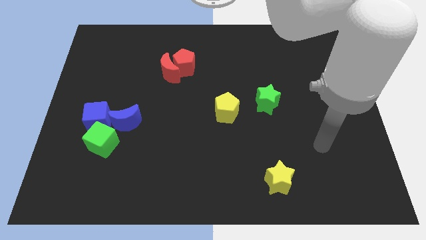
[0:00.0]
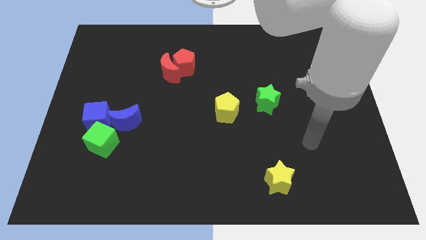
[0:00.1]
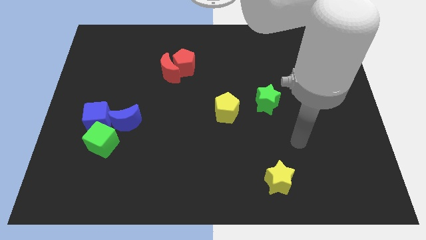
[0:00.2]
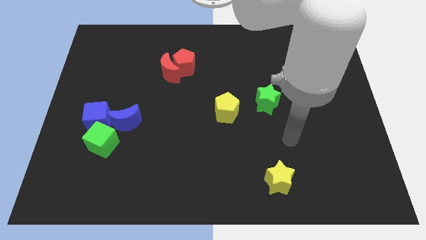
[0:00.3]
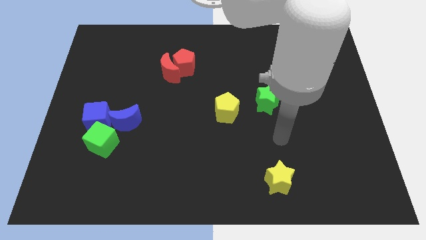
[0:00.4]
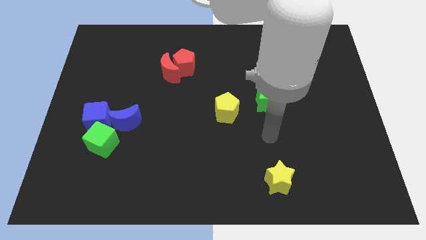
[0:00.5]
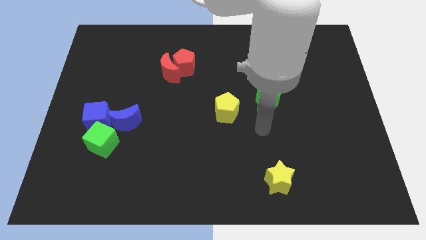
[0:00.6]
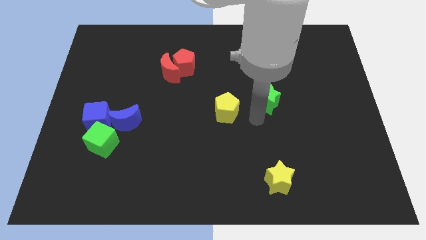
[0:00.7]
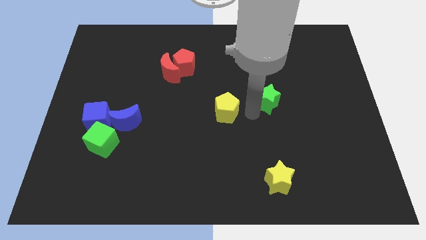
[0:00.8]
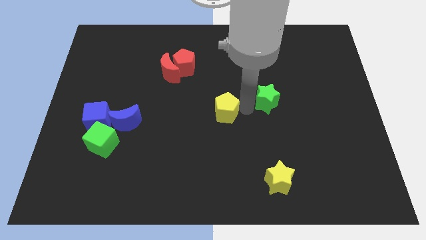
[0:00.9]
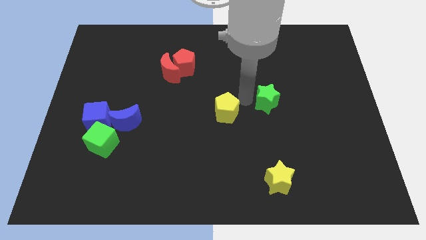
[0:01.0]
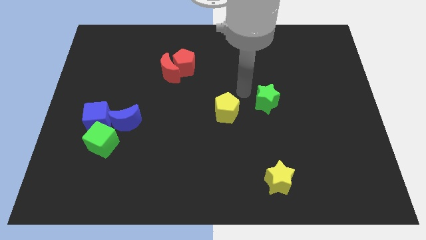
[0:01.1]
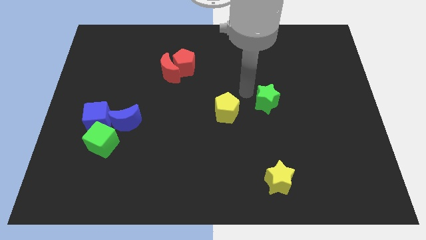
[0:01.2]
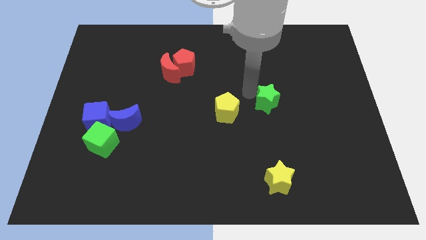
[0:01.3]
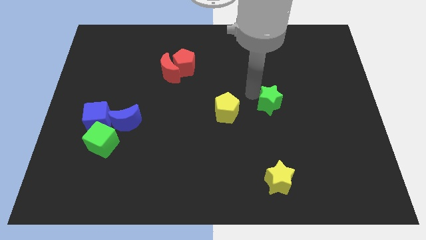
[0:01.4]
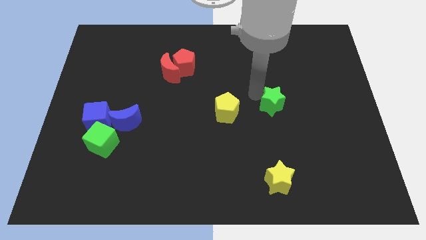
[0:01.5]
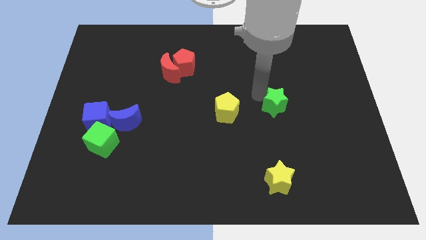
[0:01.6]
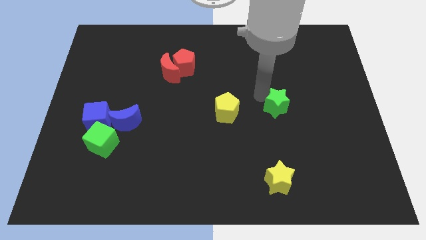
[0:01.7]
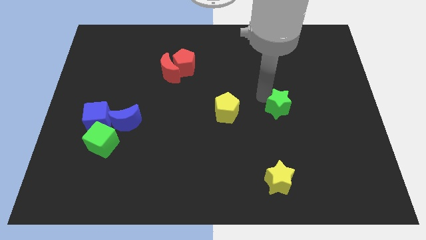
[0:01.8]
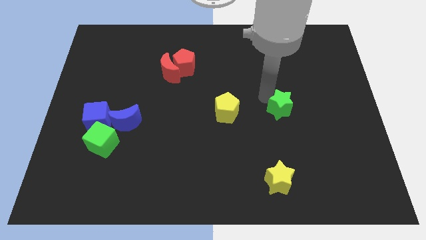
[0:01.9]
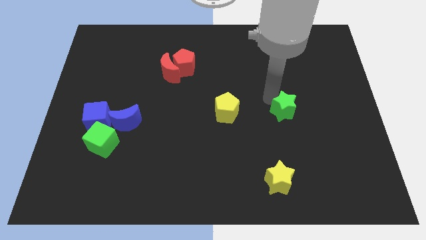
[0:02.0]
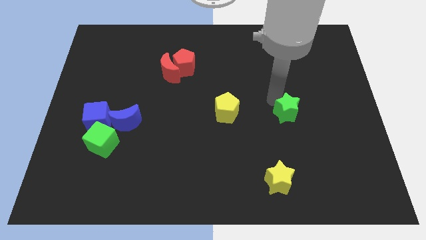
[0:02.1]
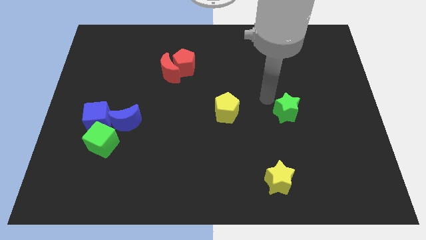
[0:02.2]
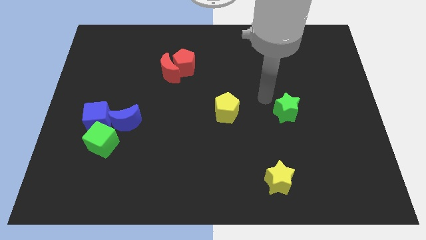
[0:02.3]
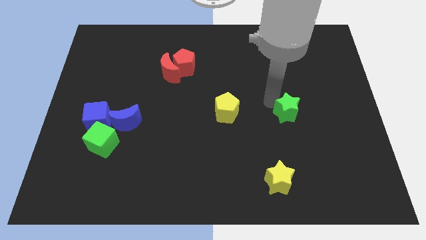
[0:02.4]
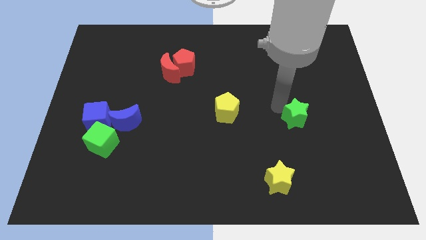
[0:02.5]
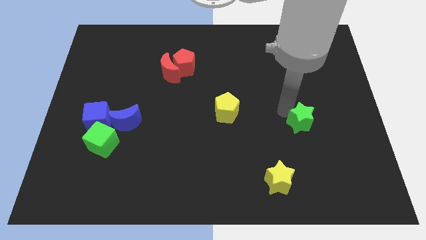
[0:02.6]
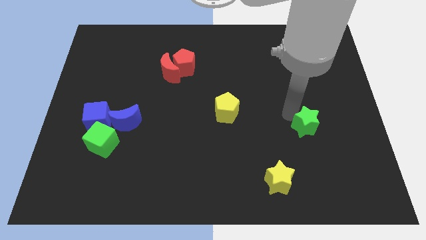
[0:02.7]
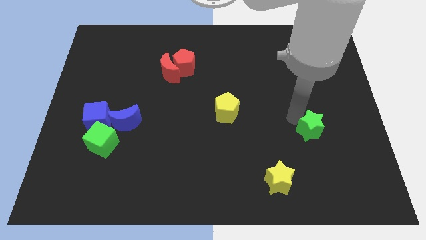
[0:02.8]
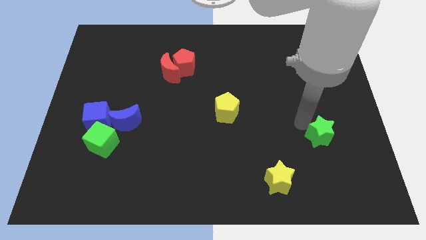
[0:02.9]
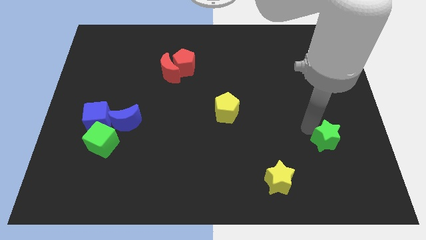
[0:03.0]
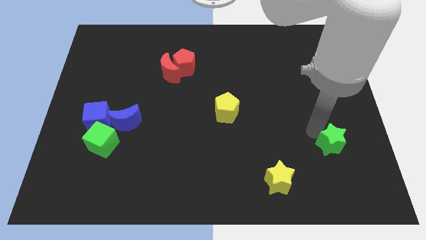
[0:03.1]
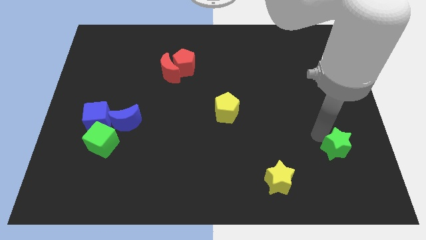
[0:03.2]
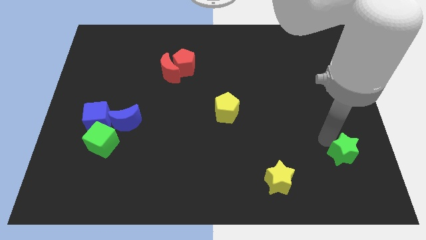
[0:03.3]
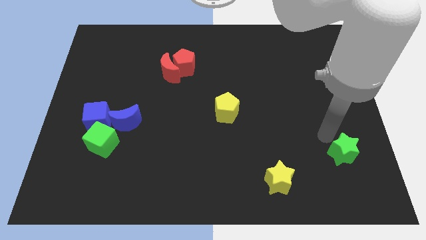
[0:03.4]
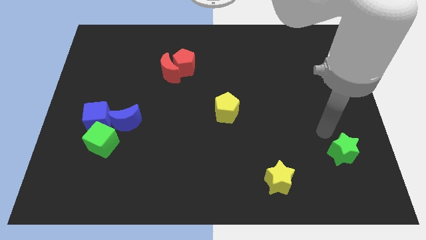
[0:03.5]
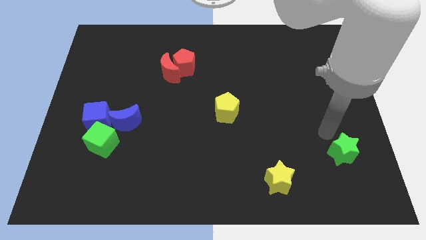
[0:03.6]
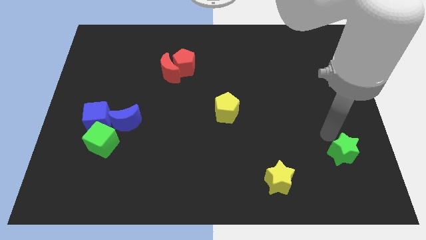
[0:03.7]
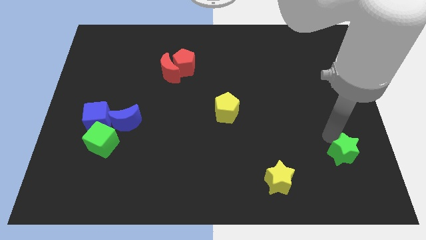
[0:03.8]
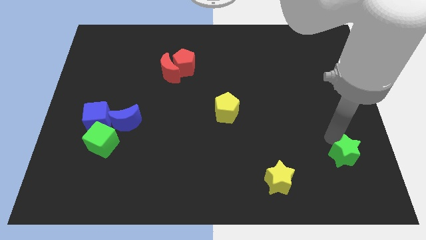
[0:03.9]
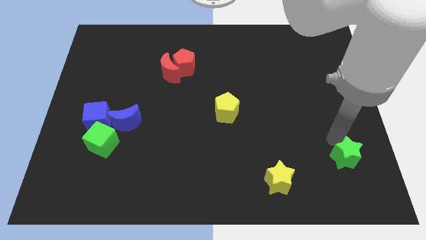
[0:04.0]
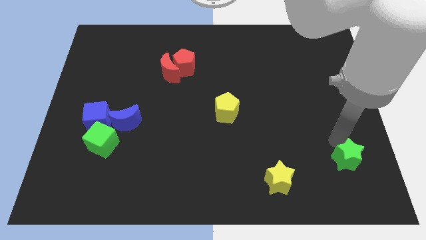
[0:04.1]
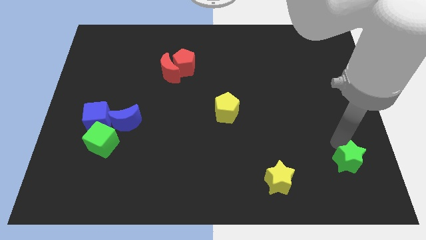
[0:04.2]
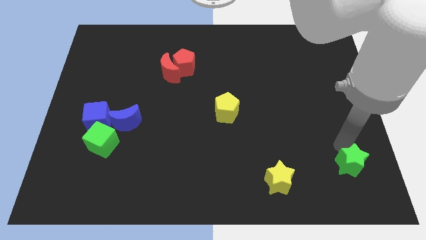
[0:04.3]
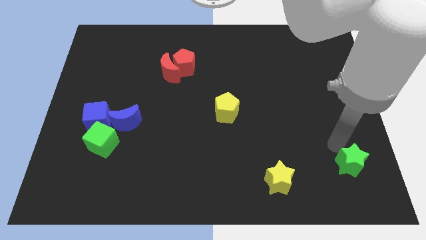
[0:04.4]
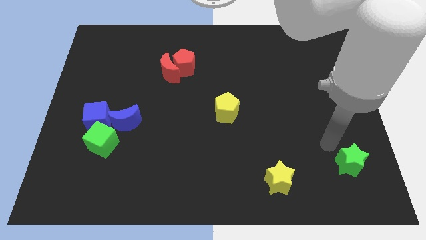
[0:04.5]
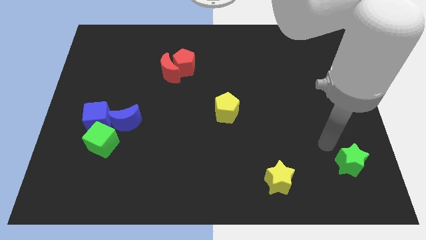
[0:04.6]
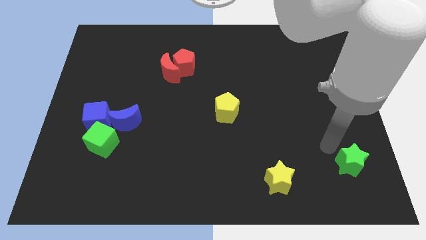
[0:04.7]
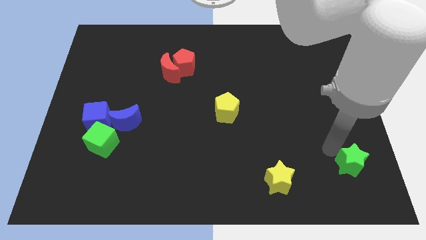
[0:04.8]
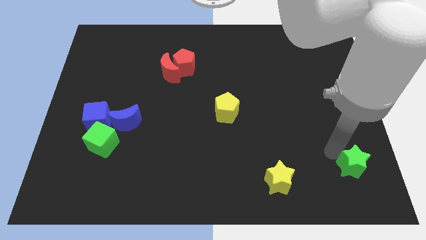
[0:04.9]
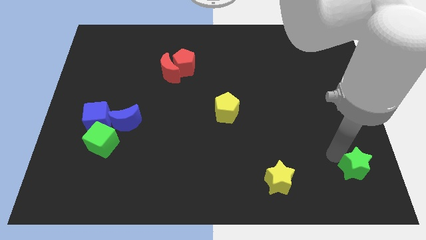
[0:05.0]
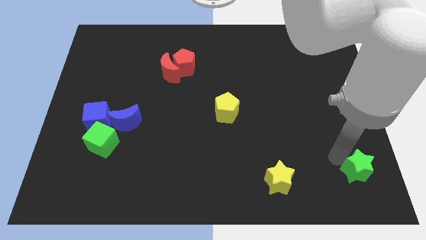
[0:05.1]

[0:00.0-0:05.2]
push the green star to the lower right corner

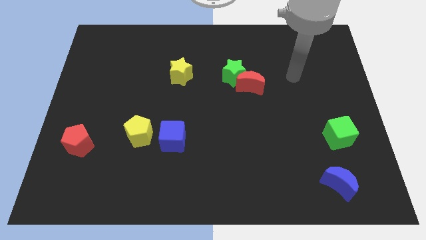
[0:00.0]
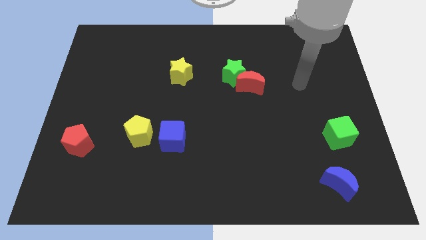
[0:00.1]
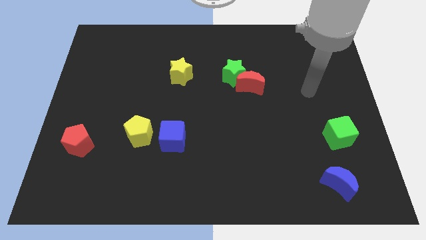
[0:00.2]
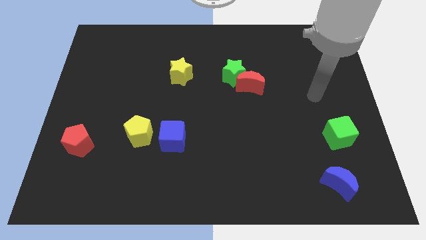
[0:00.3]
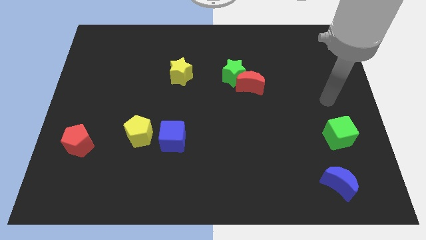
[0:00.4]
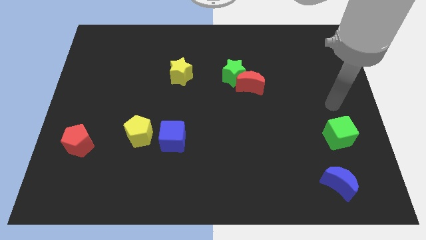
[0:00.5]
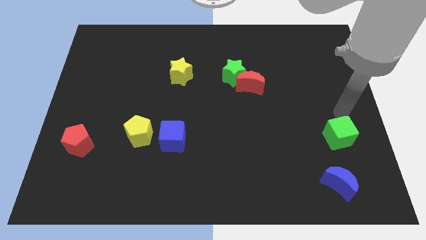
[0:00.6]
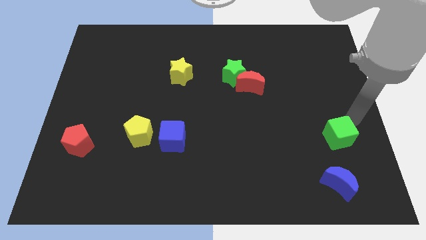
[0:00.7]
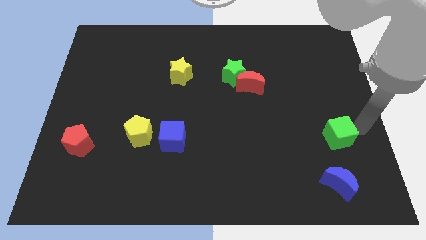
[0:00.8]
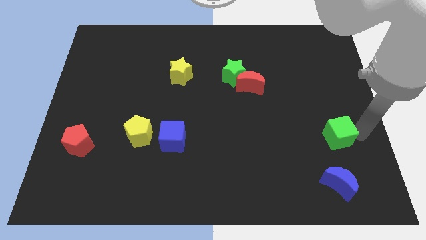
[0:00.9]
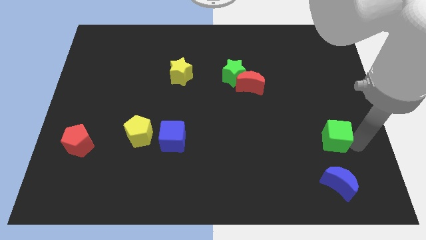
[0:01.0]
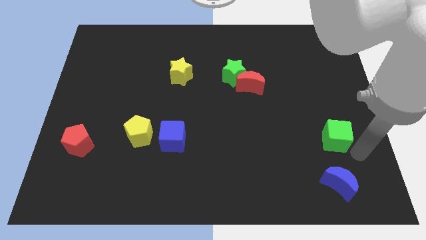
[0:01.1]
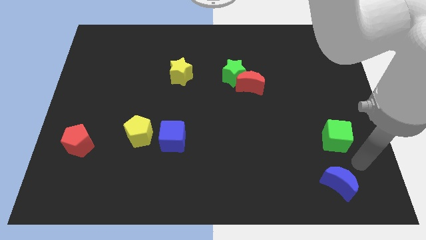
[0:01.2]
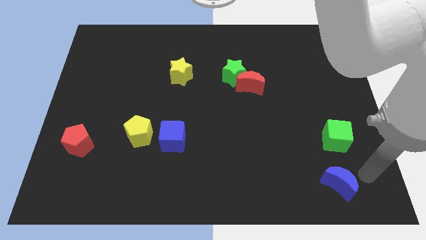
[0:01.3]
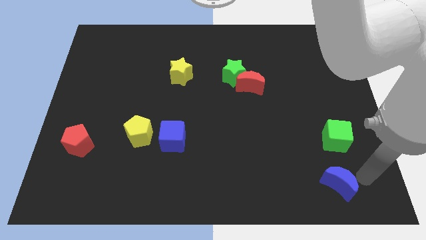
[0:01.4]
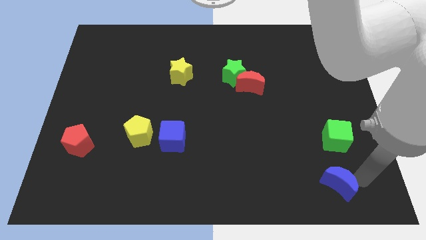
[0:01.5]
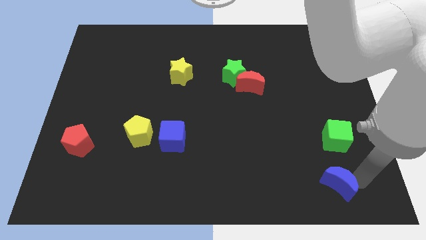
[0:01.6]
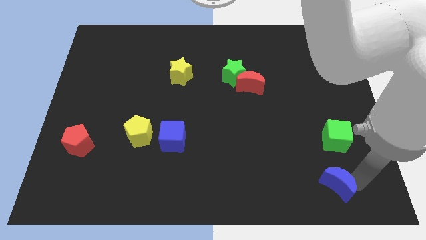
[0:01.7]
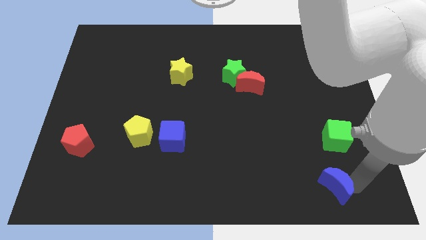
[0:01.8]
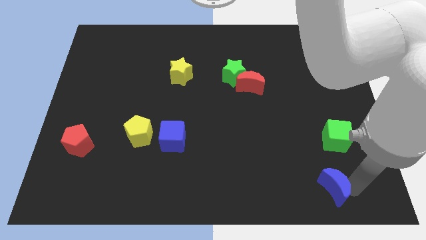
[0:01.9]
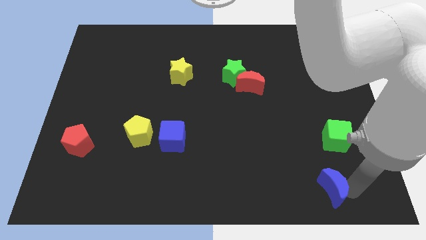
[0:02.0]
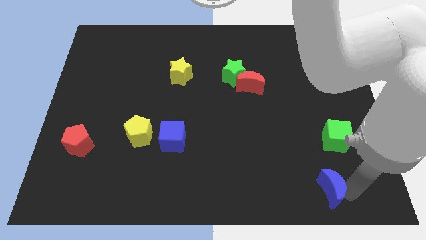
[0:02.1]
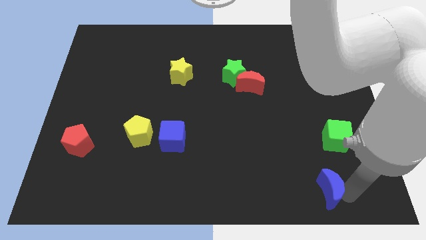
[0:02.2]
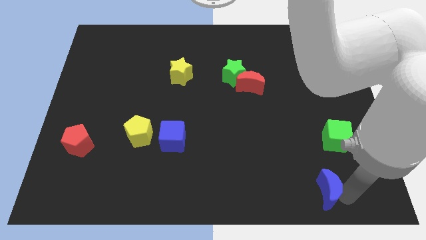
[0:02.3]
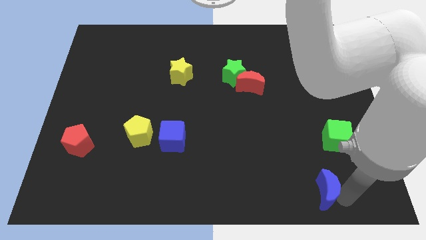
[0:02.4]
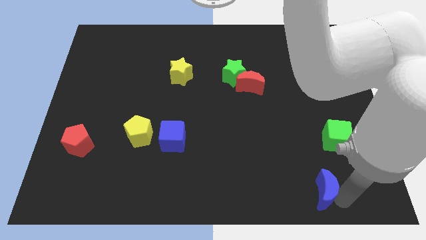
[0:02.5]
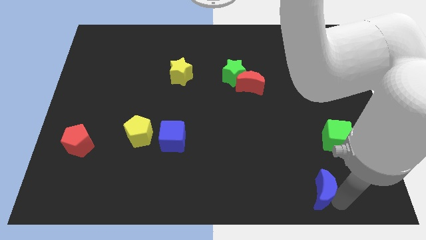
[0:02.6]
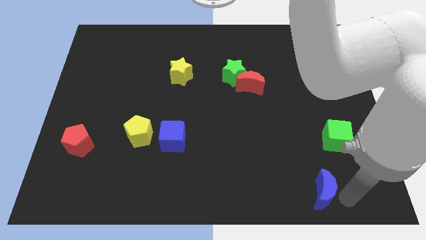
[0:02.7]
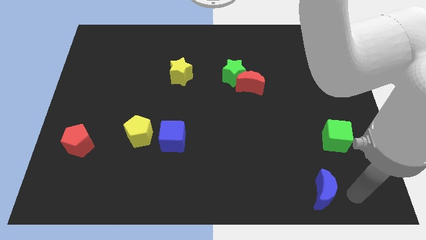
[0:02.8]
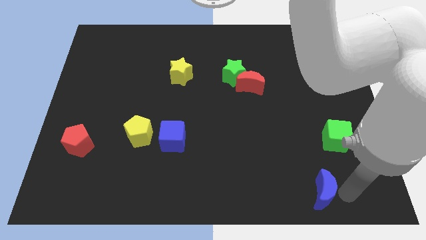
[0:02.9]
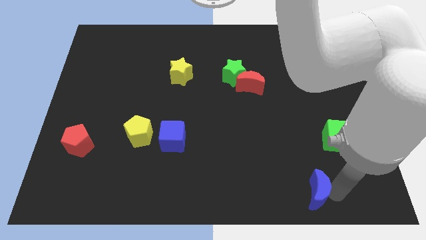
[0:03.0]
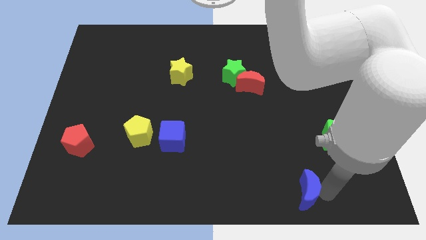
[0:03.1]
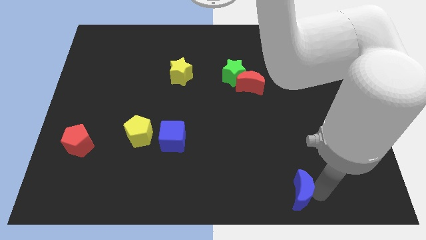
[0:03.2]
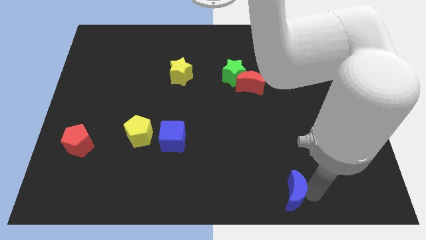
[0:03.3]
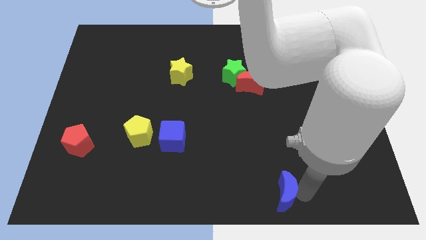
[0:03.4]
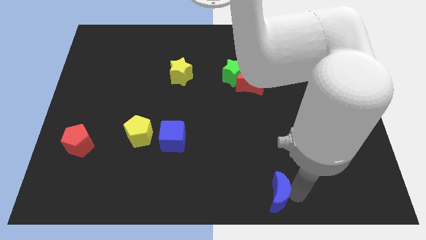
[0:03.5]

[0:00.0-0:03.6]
move the blue moon to the bottom
